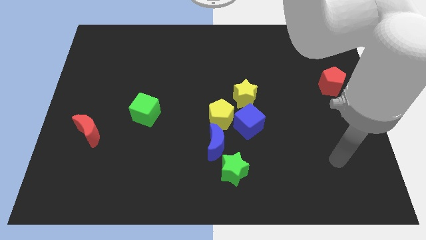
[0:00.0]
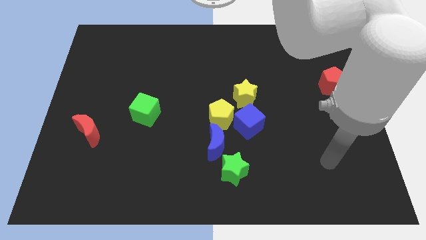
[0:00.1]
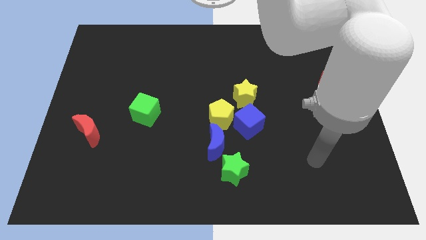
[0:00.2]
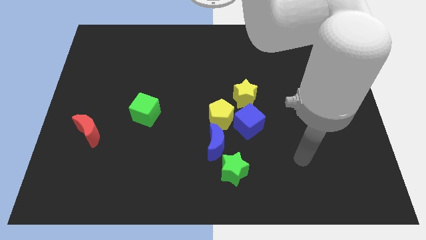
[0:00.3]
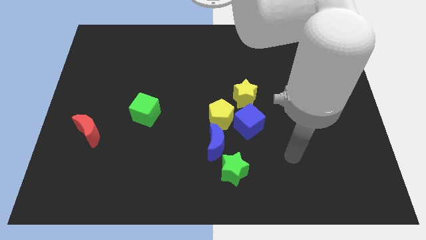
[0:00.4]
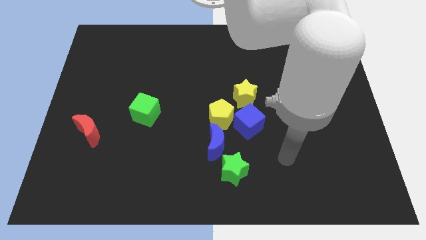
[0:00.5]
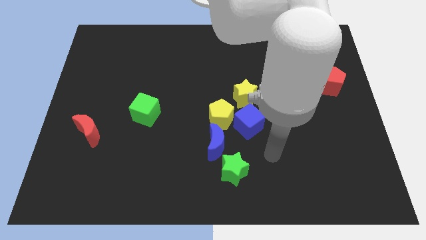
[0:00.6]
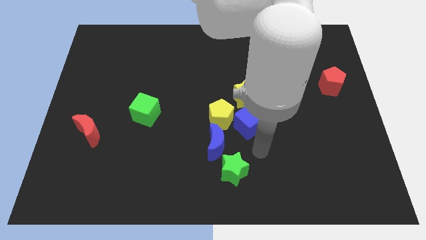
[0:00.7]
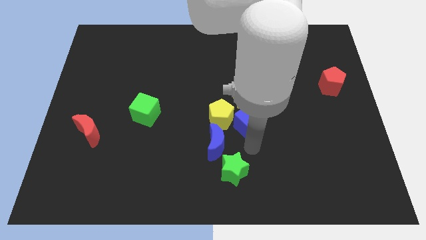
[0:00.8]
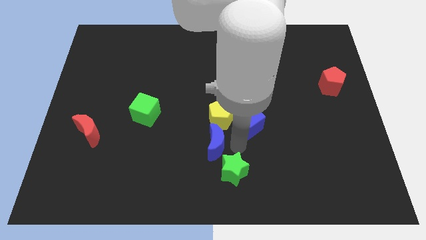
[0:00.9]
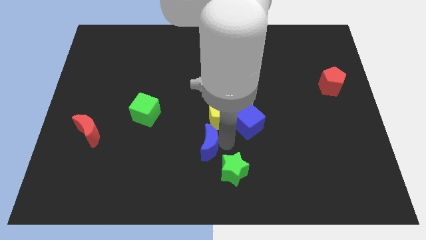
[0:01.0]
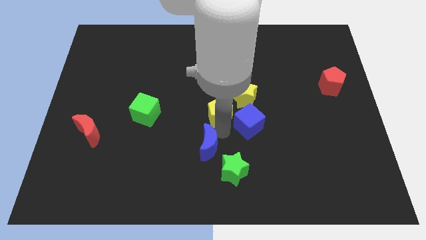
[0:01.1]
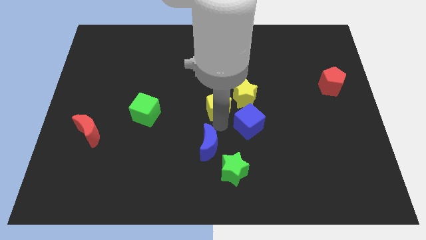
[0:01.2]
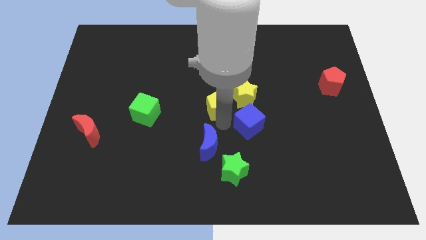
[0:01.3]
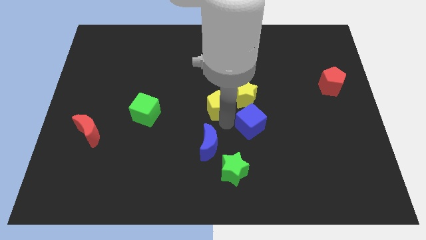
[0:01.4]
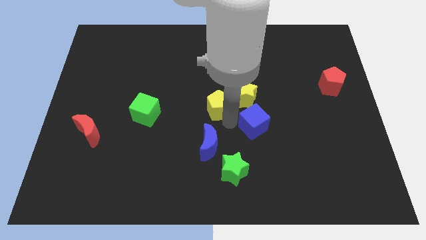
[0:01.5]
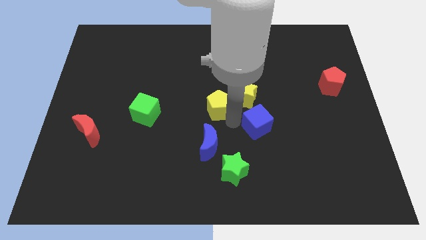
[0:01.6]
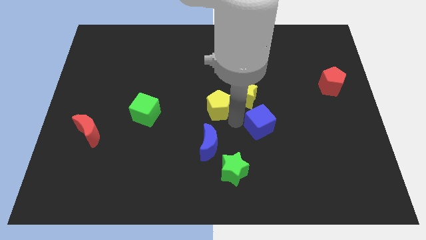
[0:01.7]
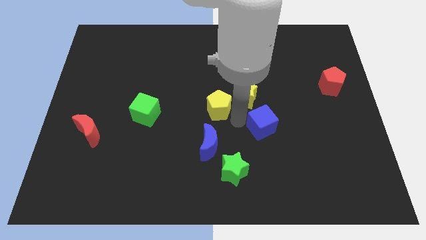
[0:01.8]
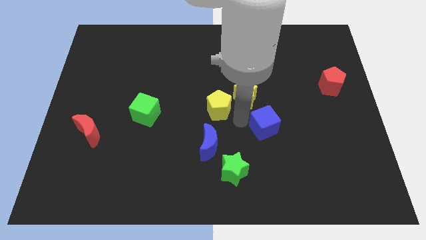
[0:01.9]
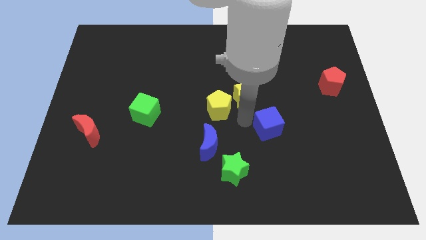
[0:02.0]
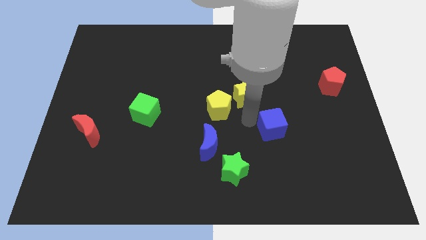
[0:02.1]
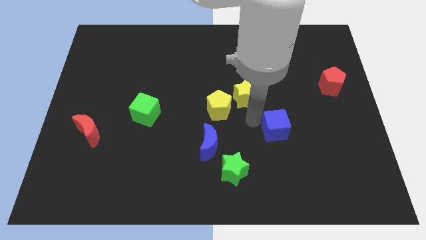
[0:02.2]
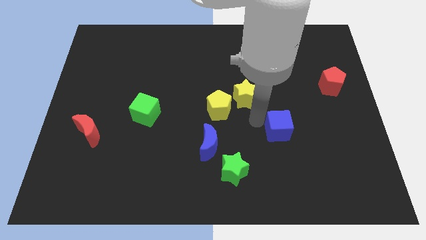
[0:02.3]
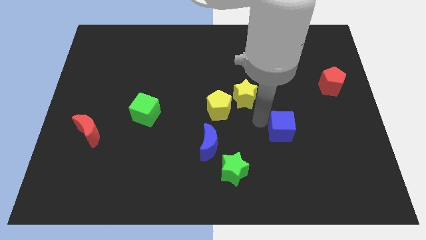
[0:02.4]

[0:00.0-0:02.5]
push the blue cube right a bit

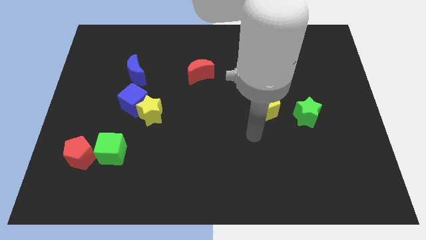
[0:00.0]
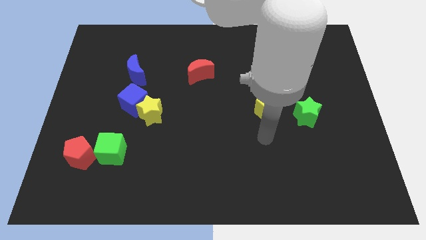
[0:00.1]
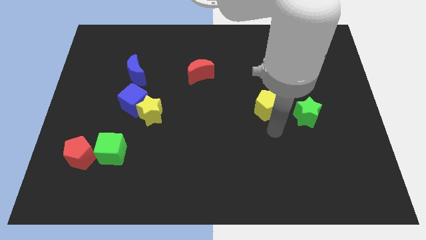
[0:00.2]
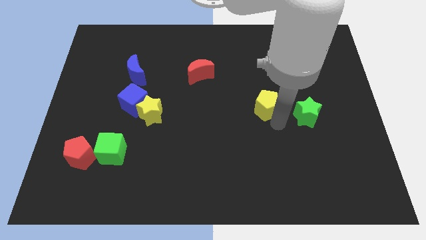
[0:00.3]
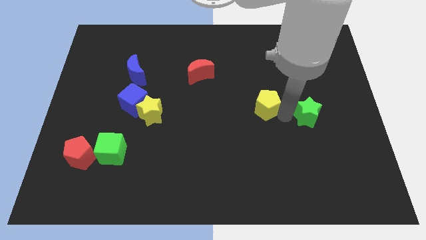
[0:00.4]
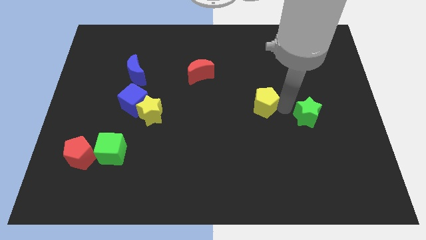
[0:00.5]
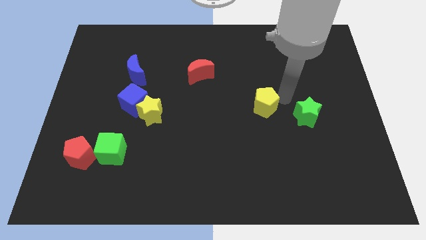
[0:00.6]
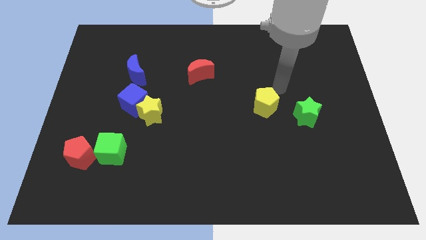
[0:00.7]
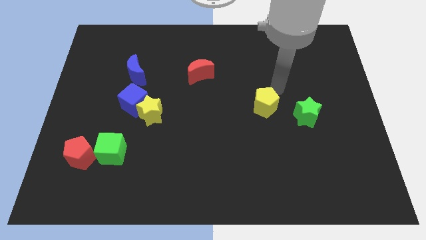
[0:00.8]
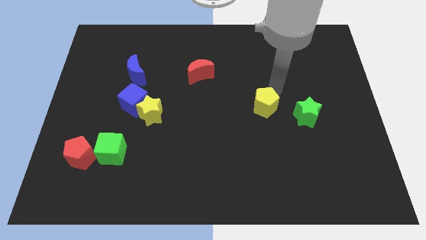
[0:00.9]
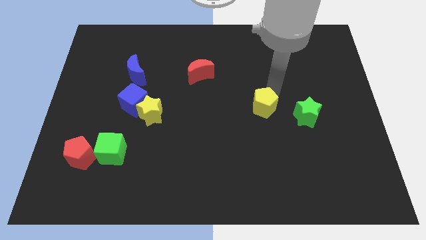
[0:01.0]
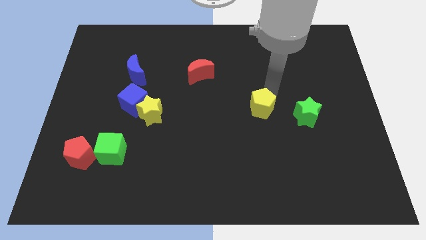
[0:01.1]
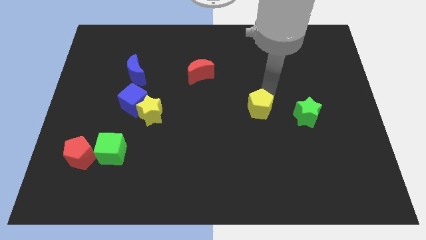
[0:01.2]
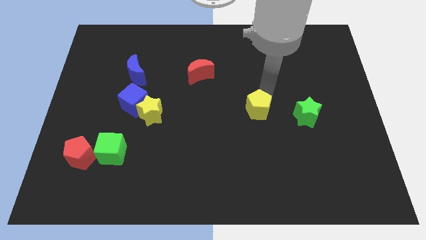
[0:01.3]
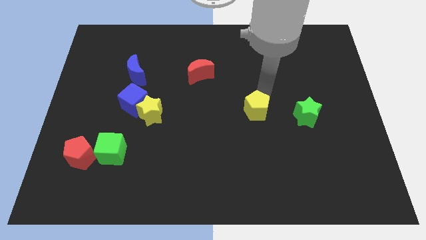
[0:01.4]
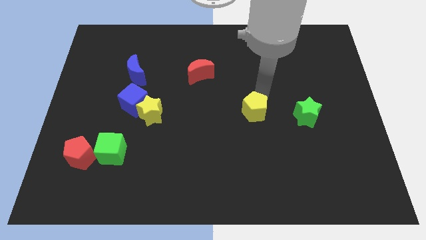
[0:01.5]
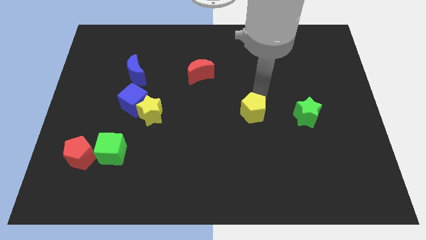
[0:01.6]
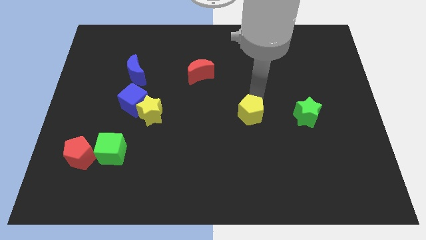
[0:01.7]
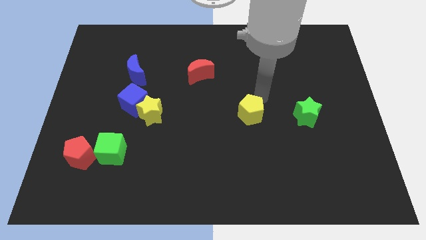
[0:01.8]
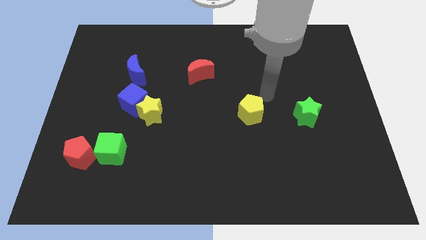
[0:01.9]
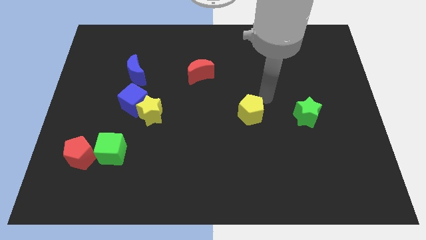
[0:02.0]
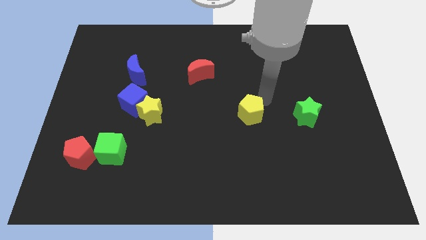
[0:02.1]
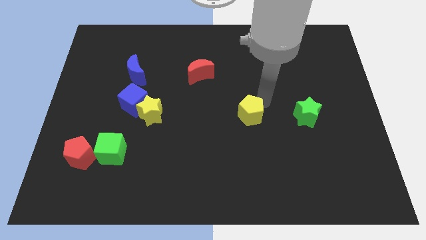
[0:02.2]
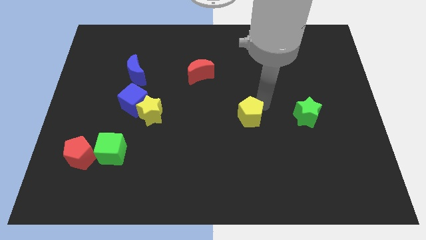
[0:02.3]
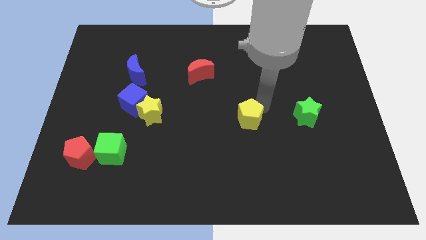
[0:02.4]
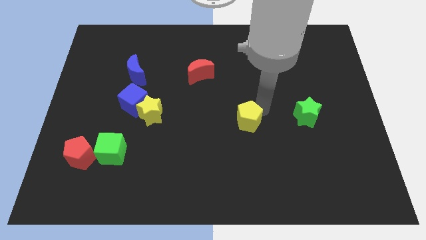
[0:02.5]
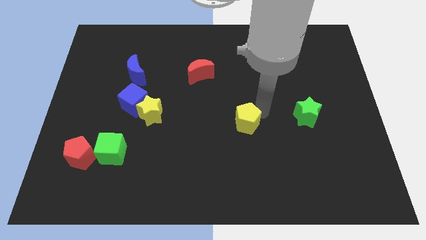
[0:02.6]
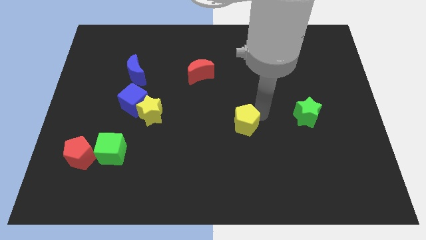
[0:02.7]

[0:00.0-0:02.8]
slide the yellow pentagon down and left diagonally somewhat

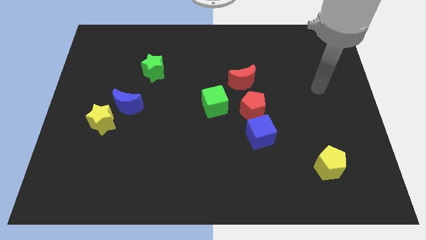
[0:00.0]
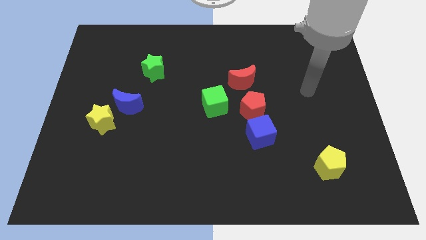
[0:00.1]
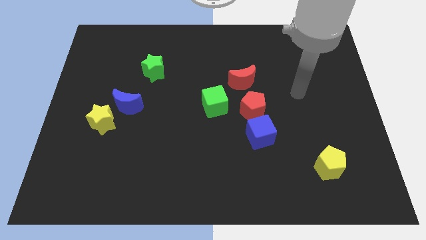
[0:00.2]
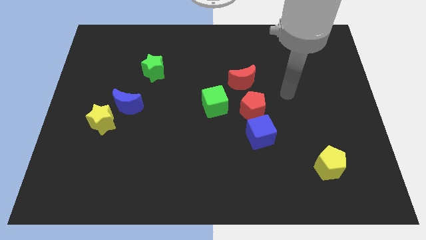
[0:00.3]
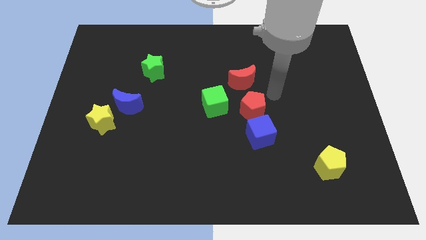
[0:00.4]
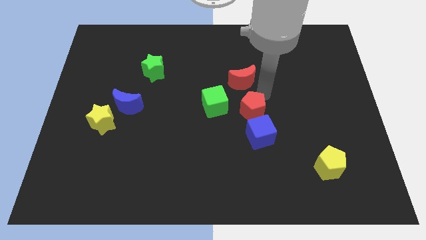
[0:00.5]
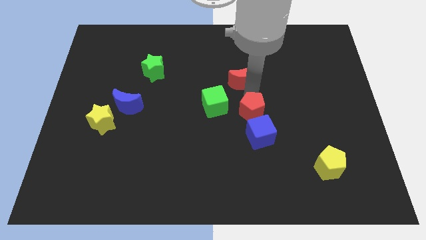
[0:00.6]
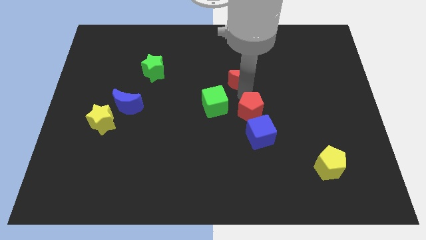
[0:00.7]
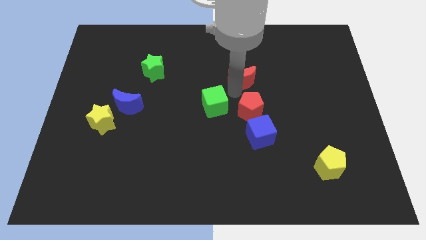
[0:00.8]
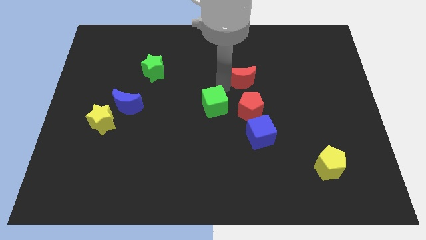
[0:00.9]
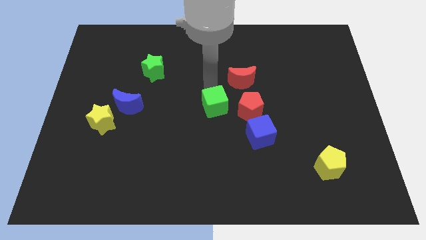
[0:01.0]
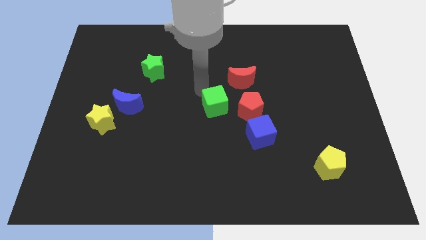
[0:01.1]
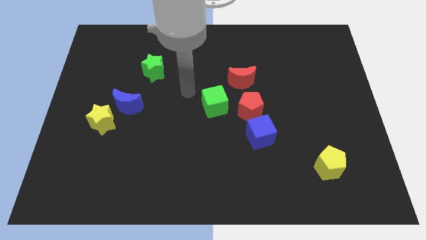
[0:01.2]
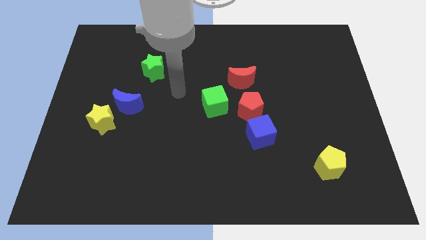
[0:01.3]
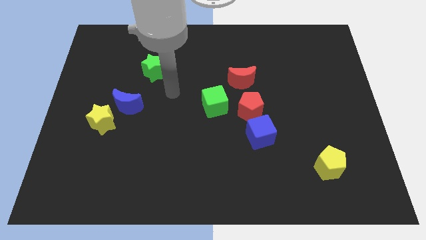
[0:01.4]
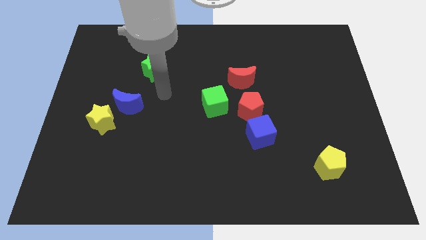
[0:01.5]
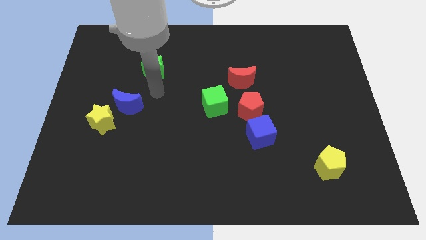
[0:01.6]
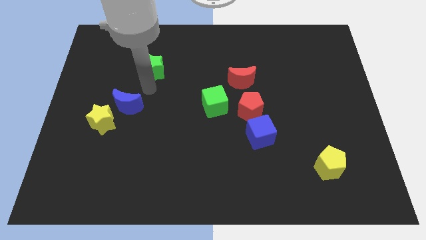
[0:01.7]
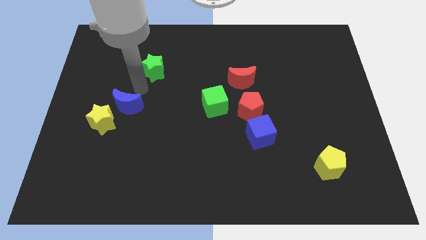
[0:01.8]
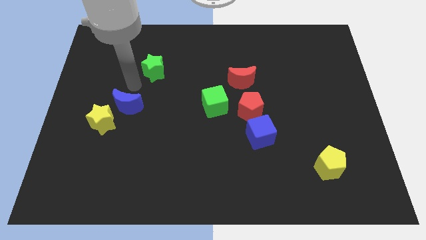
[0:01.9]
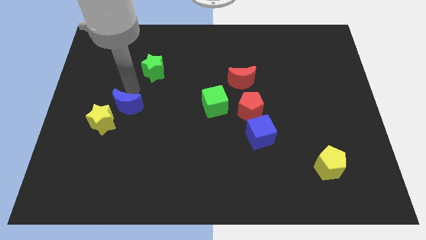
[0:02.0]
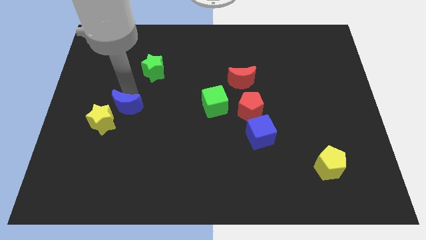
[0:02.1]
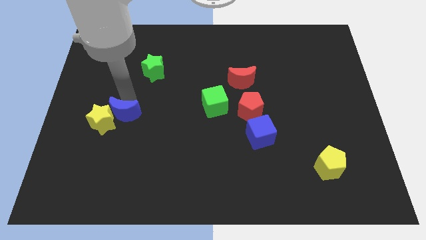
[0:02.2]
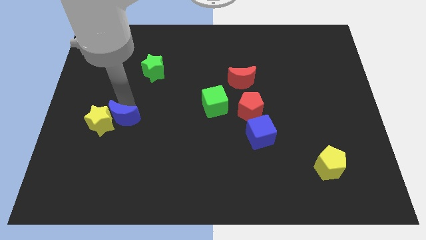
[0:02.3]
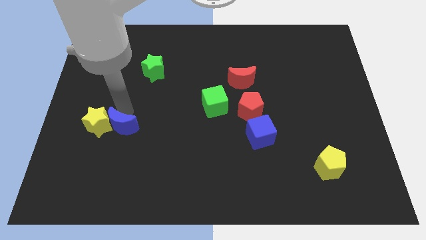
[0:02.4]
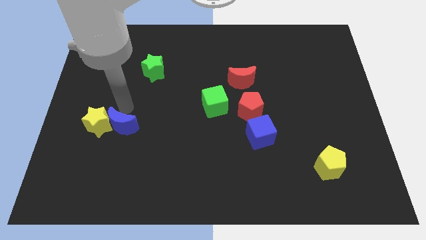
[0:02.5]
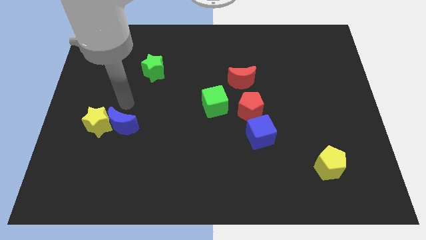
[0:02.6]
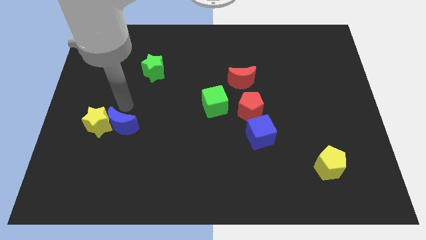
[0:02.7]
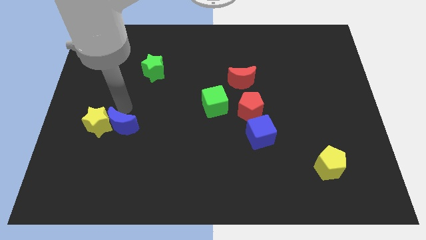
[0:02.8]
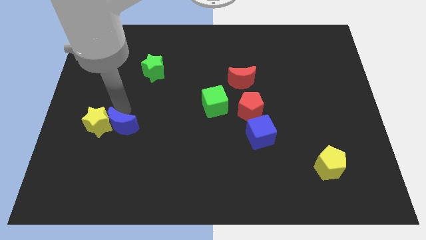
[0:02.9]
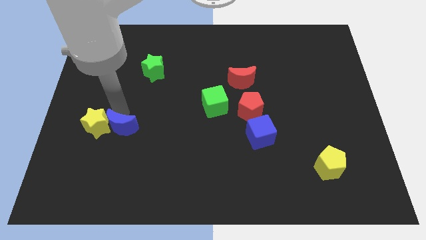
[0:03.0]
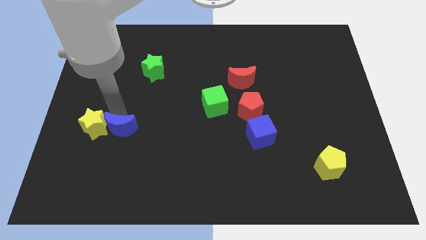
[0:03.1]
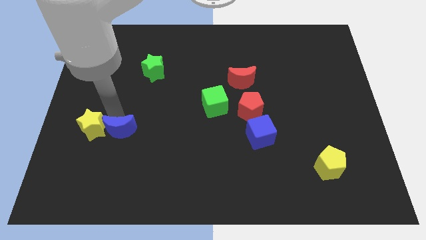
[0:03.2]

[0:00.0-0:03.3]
slightly slide the blue moon down

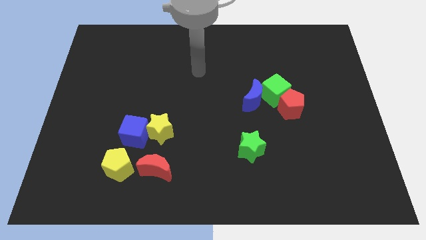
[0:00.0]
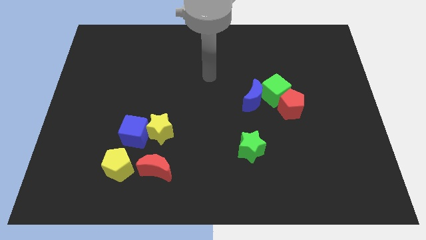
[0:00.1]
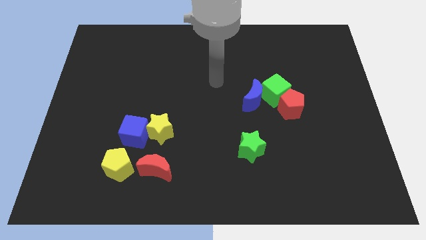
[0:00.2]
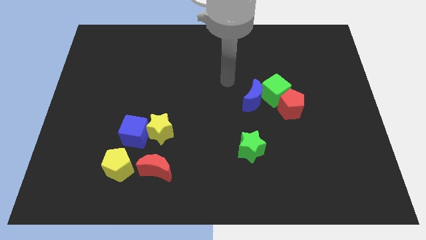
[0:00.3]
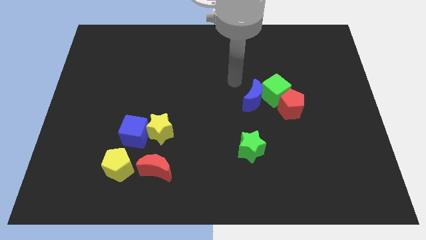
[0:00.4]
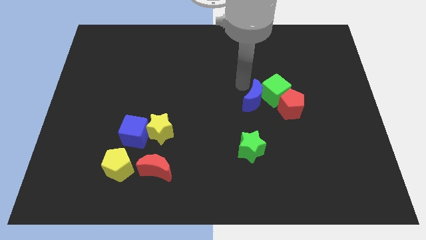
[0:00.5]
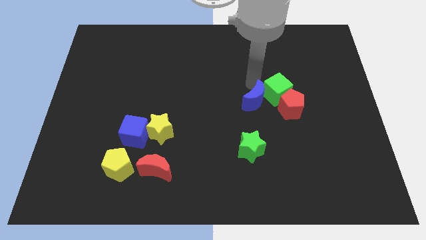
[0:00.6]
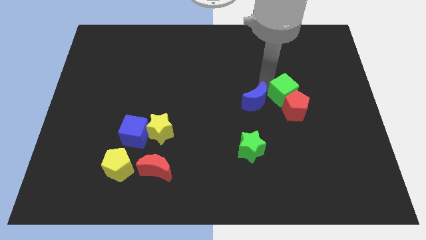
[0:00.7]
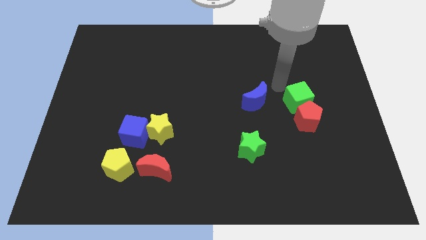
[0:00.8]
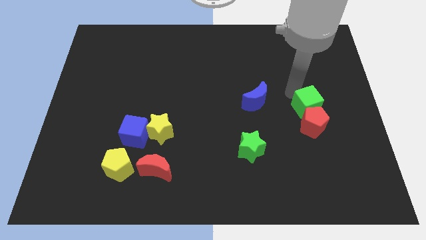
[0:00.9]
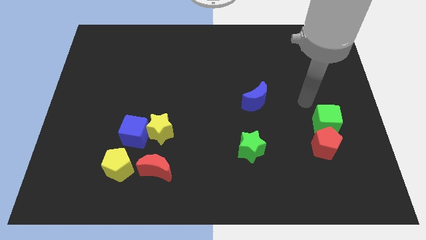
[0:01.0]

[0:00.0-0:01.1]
slide the red pentagon down a bit
